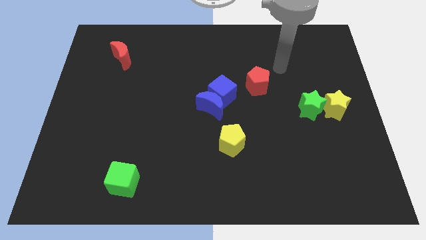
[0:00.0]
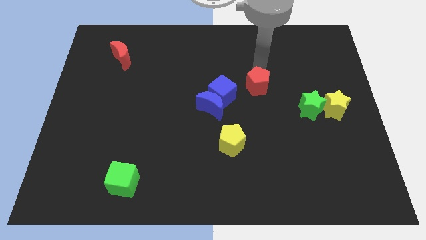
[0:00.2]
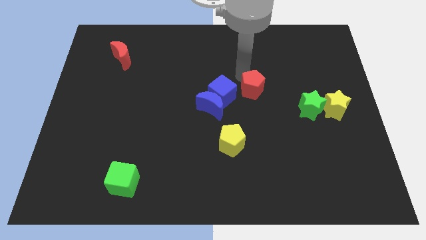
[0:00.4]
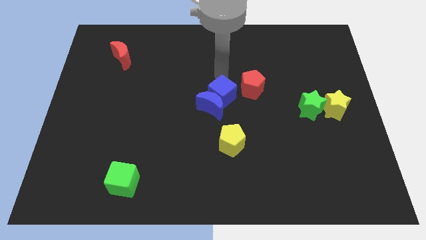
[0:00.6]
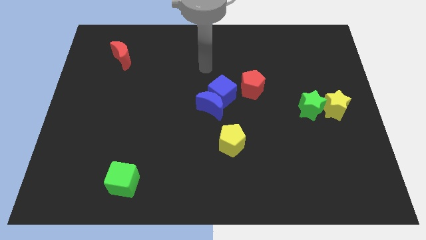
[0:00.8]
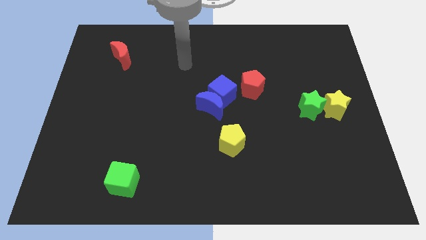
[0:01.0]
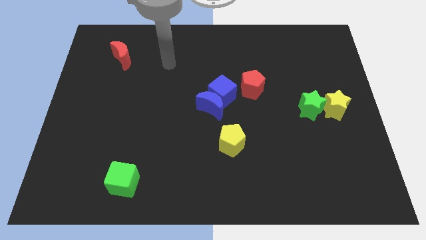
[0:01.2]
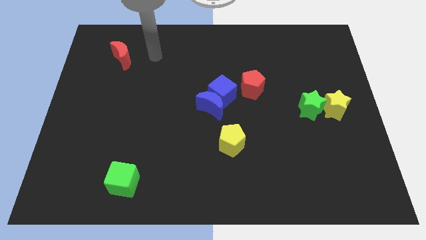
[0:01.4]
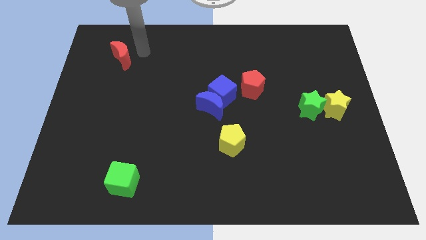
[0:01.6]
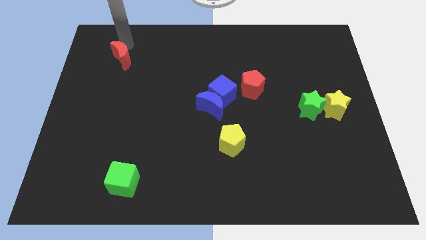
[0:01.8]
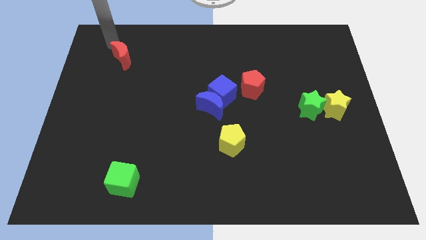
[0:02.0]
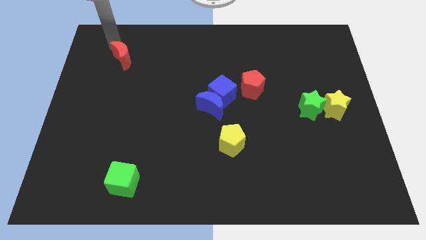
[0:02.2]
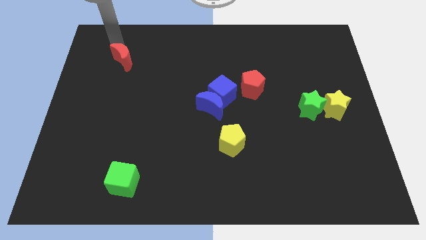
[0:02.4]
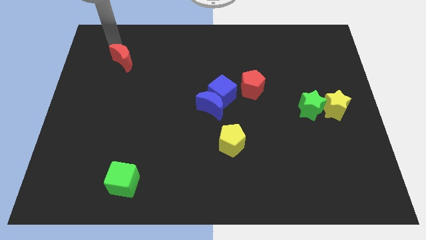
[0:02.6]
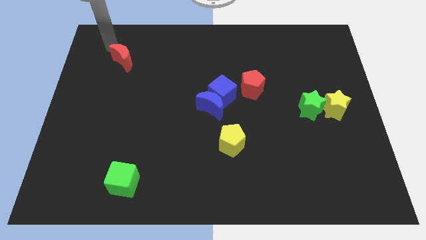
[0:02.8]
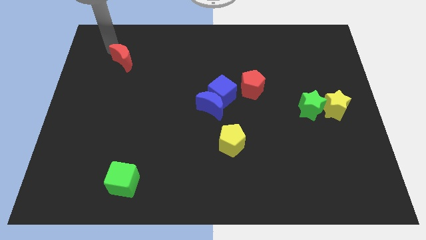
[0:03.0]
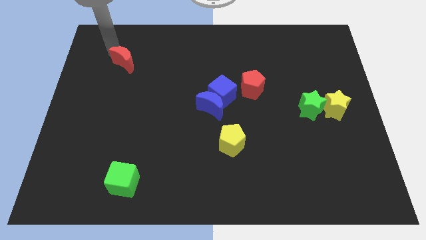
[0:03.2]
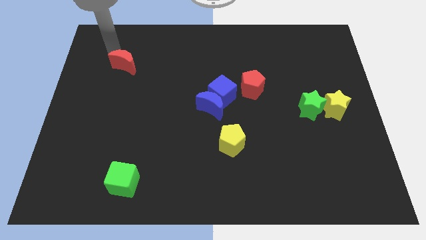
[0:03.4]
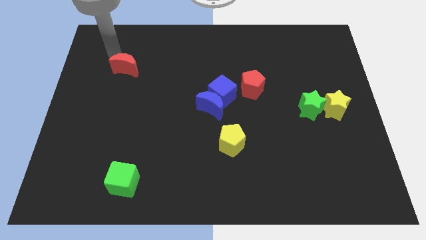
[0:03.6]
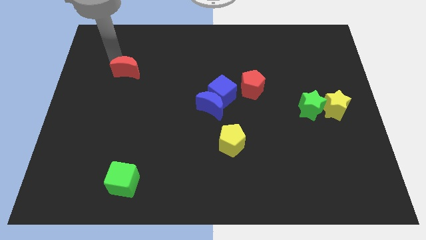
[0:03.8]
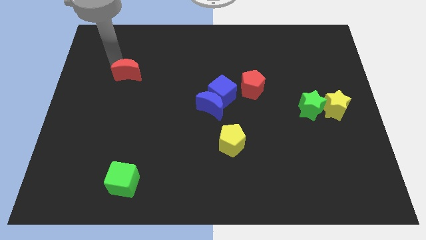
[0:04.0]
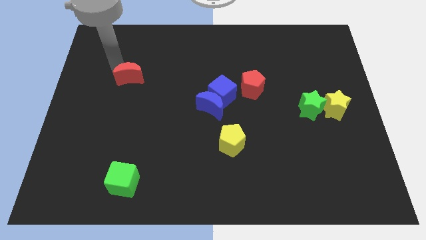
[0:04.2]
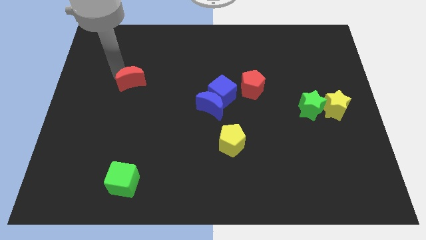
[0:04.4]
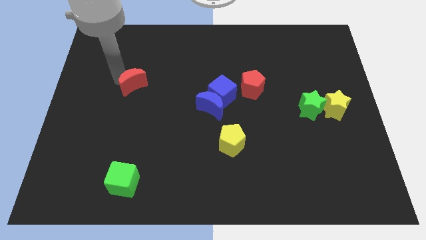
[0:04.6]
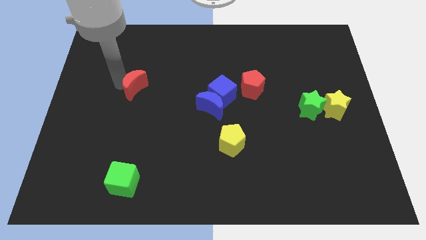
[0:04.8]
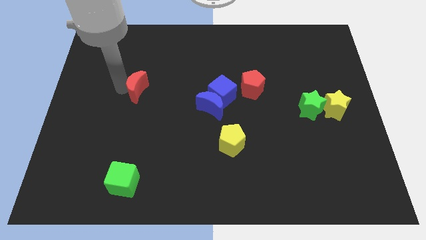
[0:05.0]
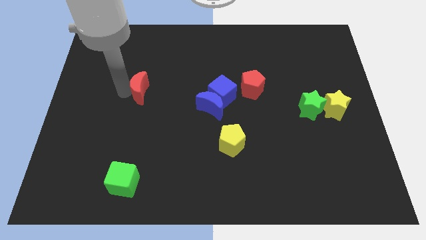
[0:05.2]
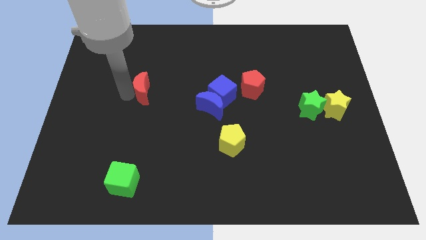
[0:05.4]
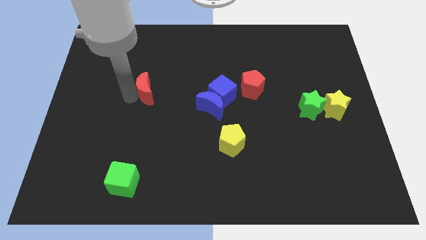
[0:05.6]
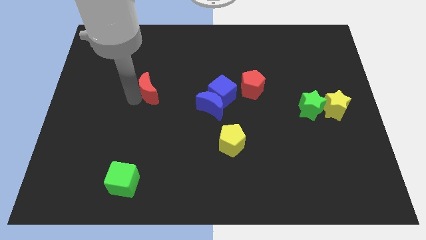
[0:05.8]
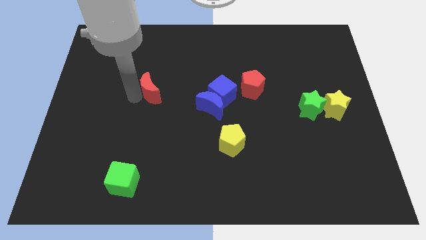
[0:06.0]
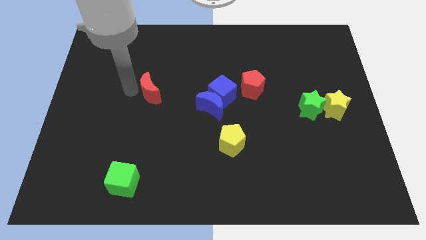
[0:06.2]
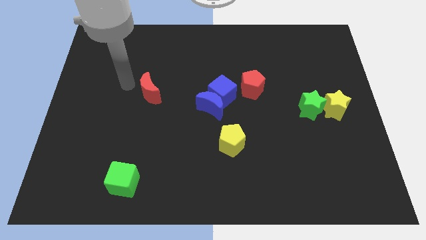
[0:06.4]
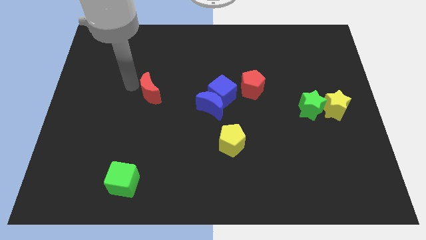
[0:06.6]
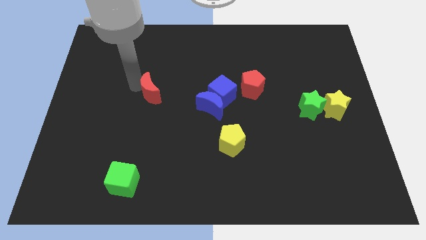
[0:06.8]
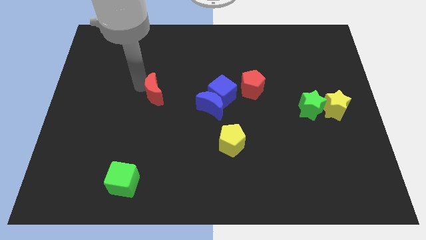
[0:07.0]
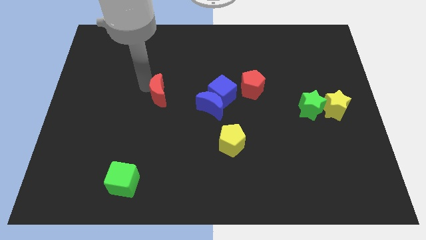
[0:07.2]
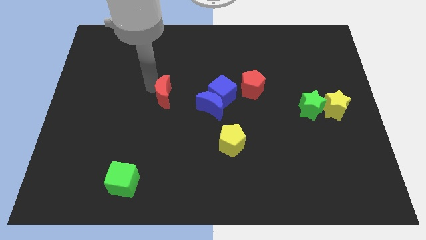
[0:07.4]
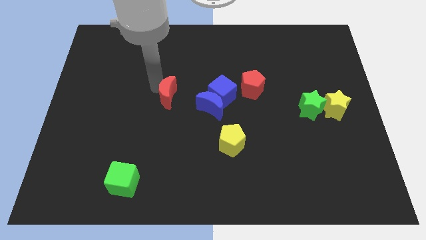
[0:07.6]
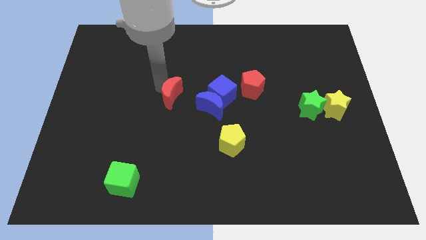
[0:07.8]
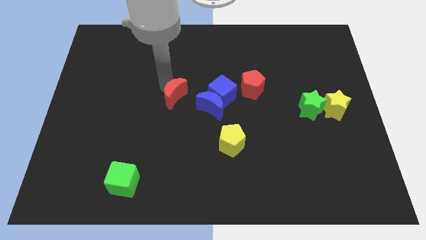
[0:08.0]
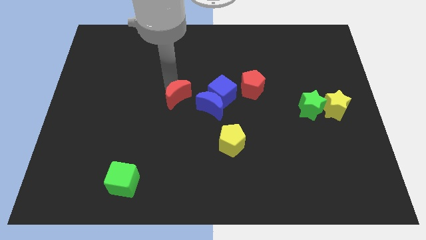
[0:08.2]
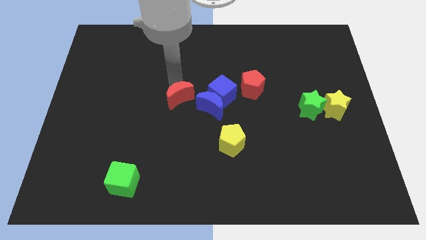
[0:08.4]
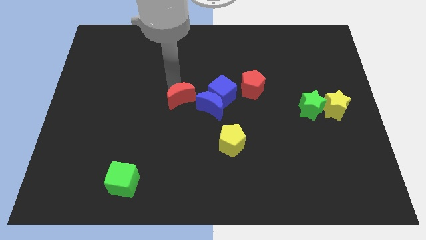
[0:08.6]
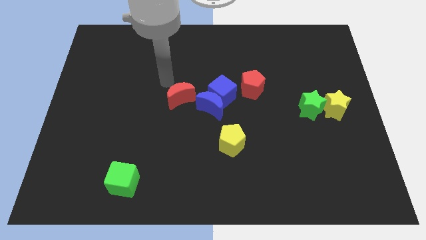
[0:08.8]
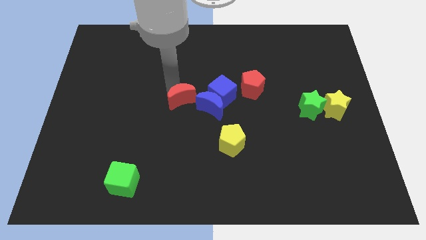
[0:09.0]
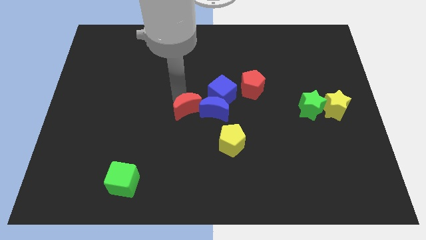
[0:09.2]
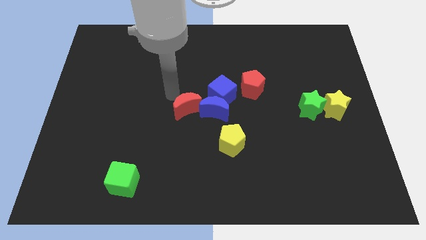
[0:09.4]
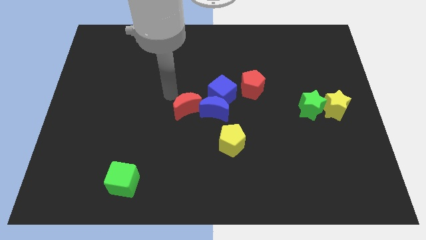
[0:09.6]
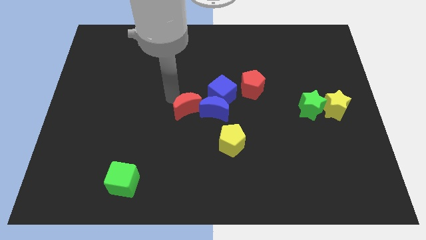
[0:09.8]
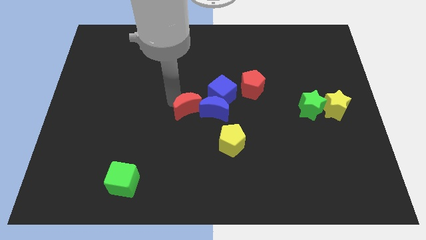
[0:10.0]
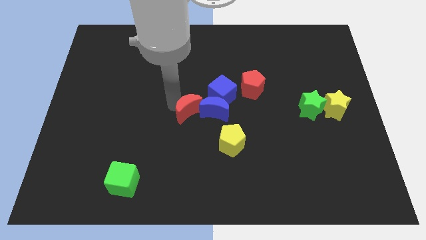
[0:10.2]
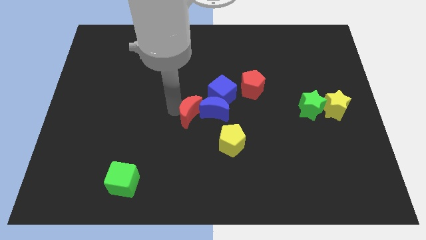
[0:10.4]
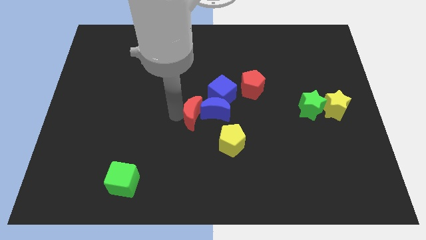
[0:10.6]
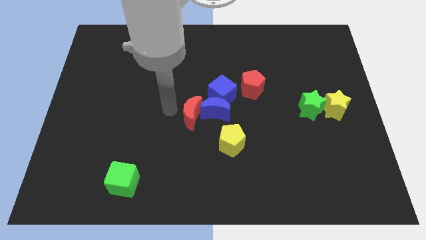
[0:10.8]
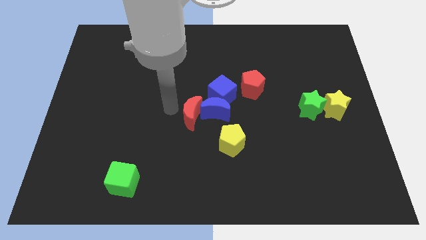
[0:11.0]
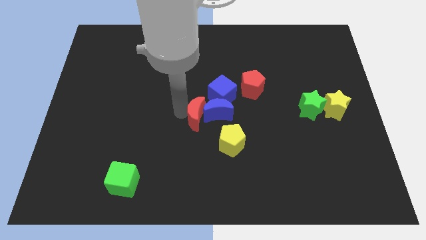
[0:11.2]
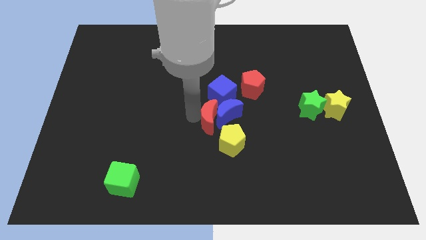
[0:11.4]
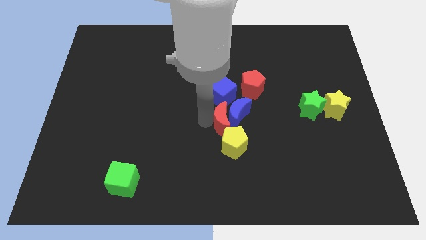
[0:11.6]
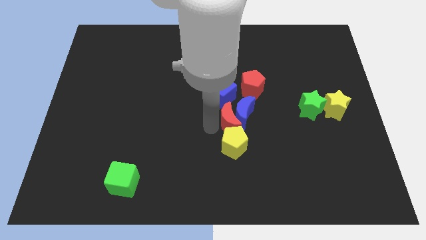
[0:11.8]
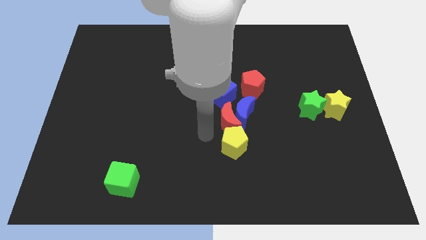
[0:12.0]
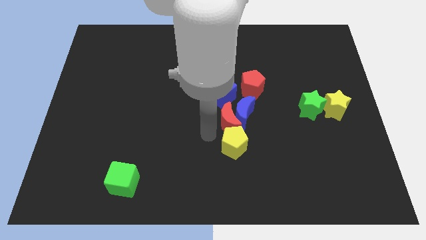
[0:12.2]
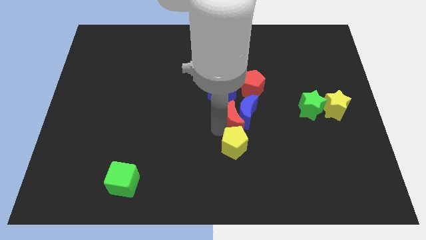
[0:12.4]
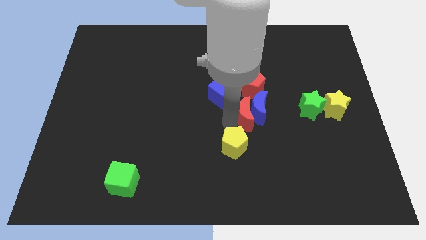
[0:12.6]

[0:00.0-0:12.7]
push the red moon left of the green star

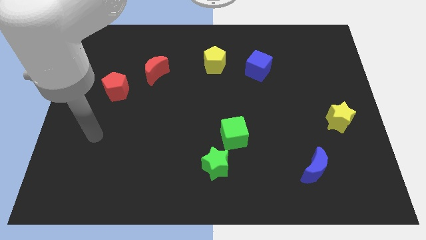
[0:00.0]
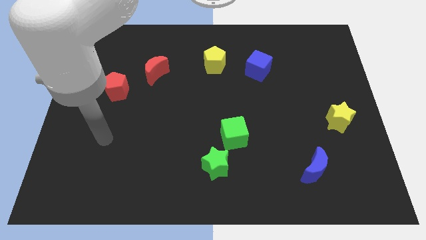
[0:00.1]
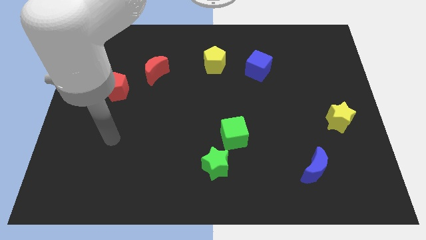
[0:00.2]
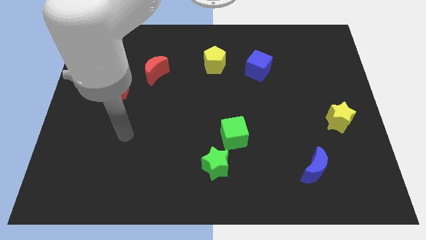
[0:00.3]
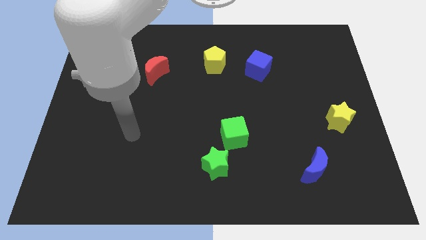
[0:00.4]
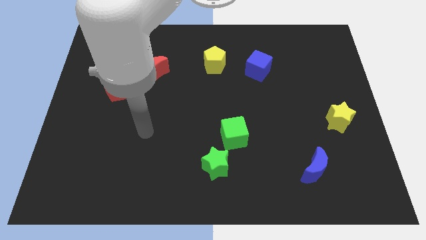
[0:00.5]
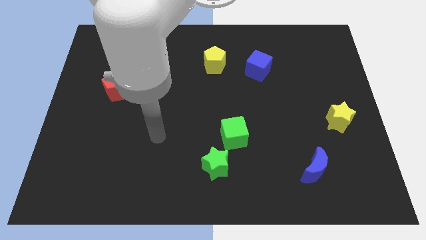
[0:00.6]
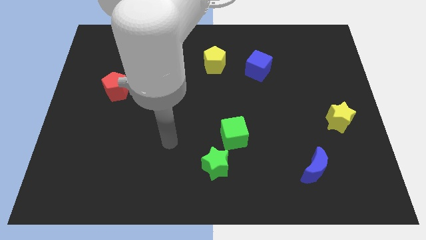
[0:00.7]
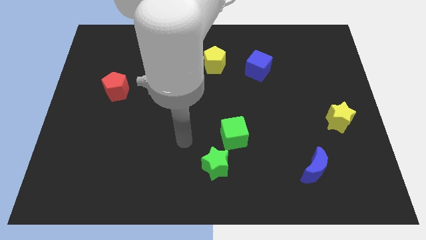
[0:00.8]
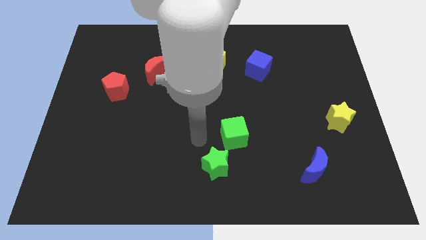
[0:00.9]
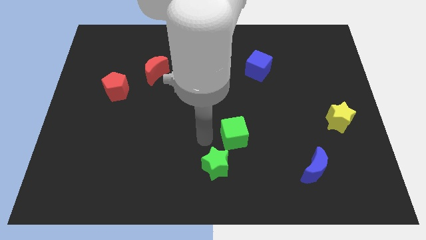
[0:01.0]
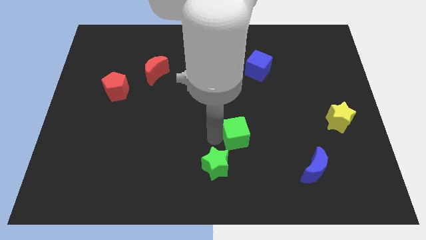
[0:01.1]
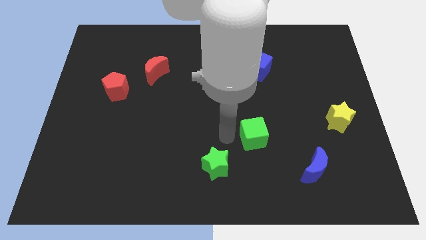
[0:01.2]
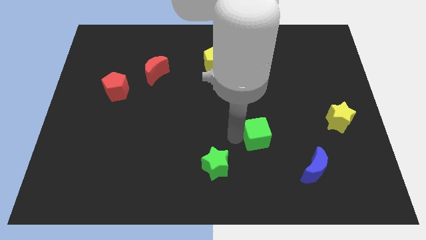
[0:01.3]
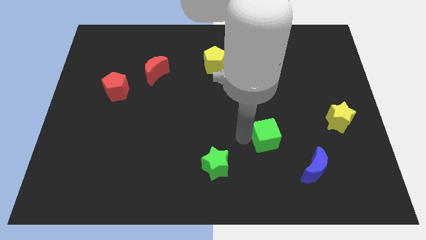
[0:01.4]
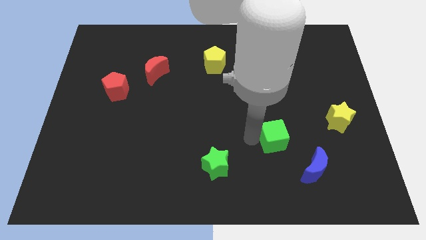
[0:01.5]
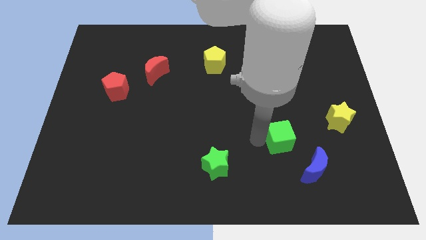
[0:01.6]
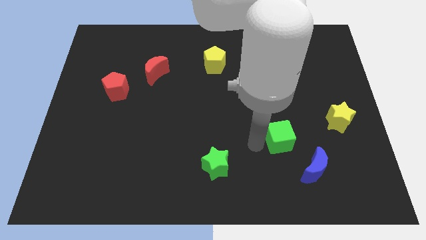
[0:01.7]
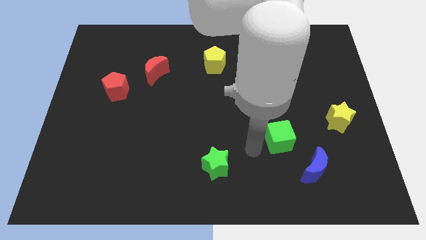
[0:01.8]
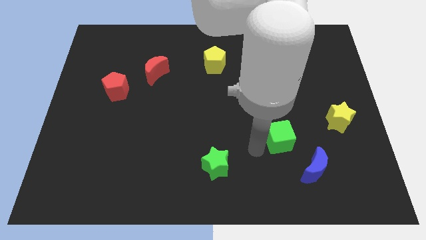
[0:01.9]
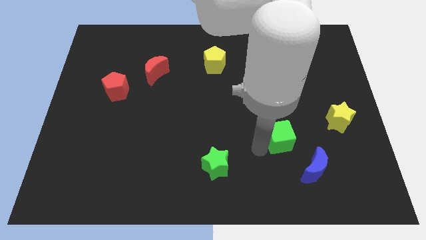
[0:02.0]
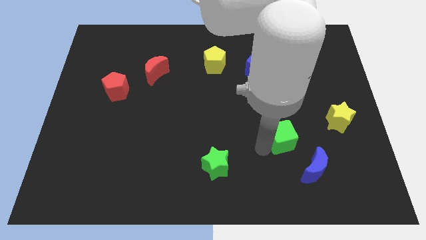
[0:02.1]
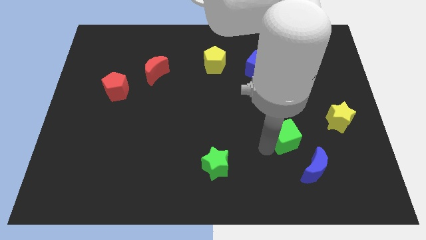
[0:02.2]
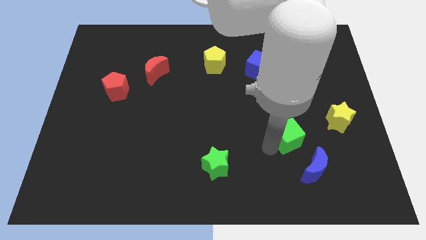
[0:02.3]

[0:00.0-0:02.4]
slide the green cube above the blue moon
